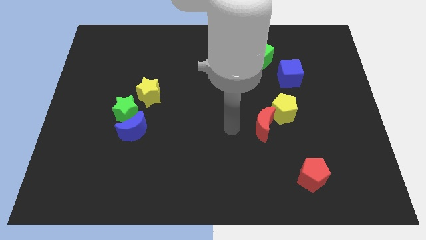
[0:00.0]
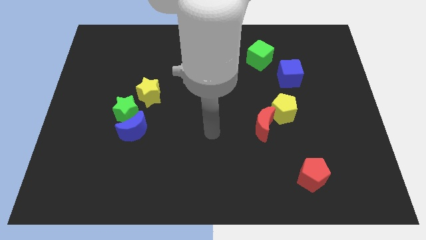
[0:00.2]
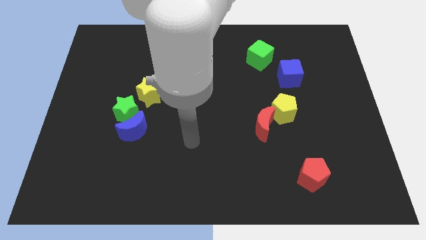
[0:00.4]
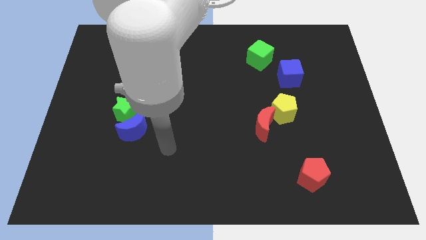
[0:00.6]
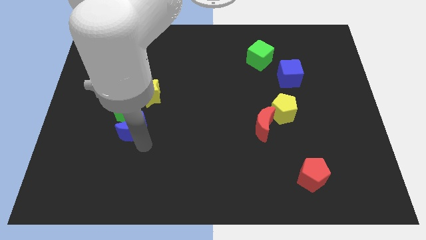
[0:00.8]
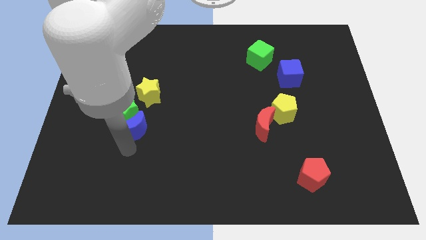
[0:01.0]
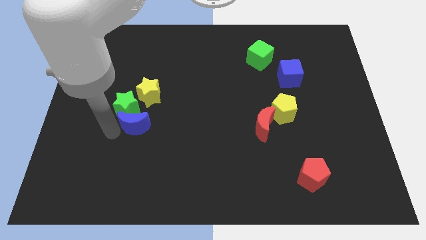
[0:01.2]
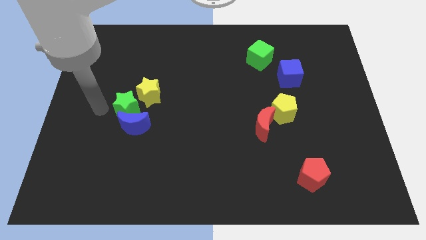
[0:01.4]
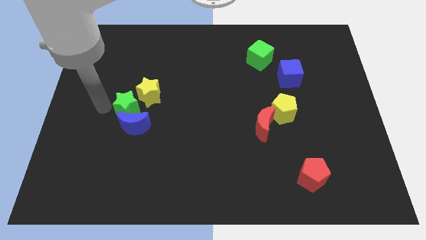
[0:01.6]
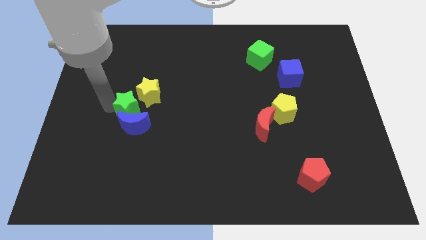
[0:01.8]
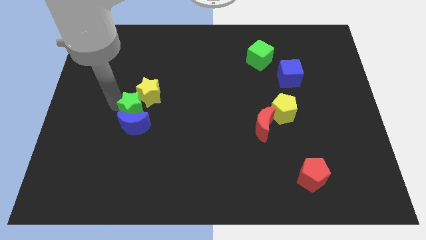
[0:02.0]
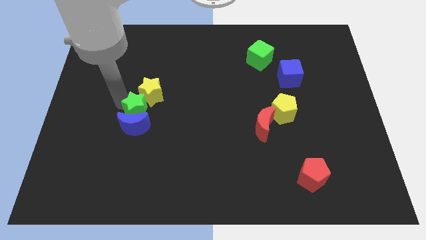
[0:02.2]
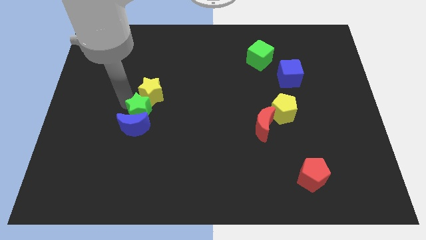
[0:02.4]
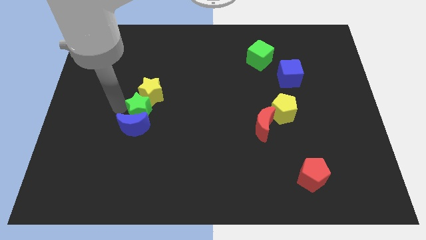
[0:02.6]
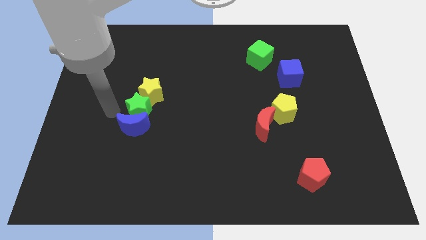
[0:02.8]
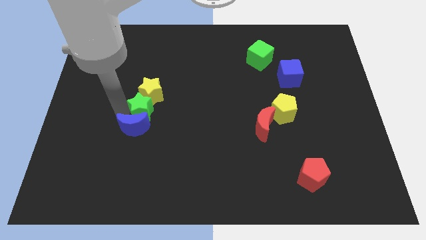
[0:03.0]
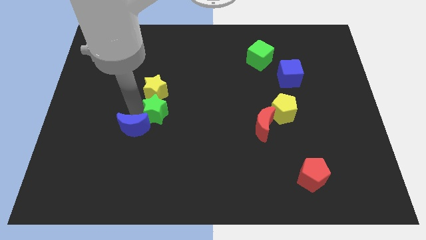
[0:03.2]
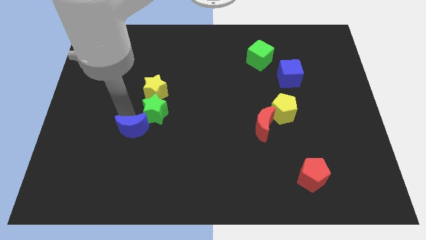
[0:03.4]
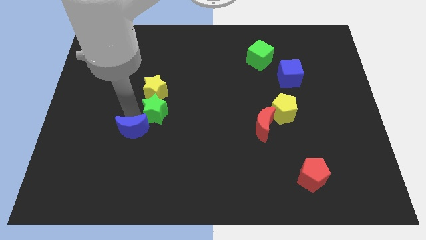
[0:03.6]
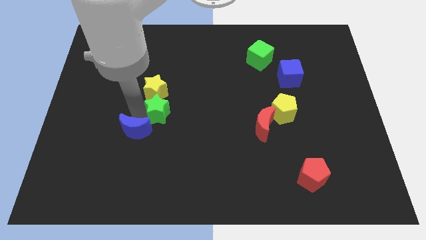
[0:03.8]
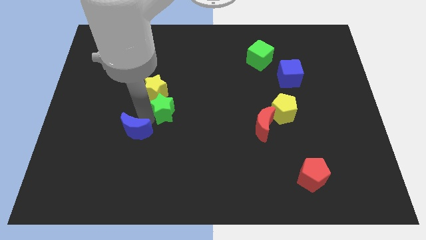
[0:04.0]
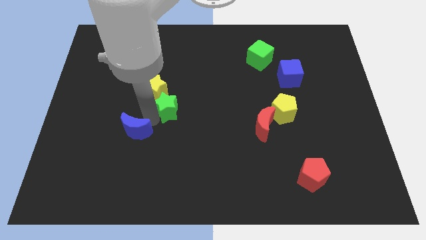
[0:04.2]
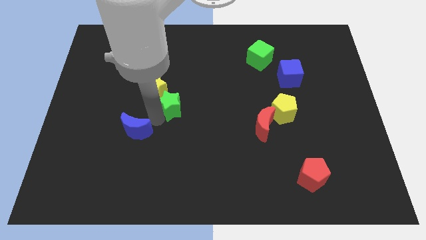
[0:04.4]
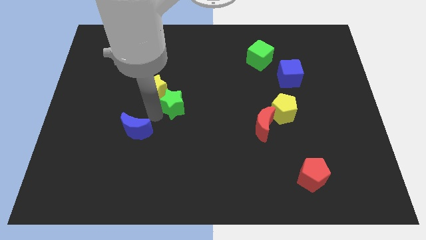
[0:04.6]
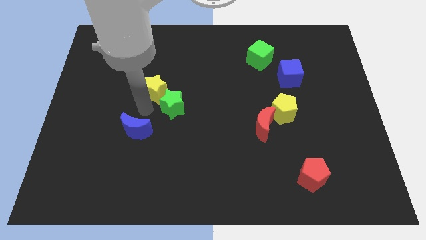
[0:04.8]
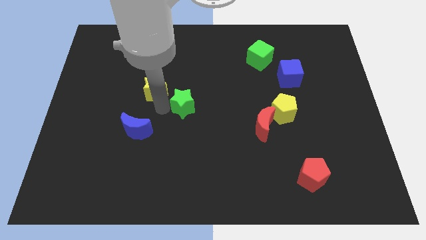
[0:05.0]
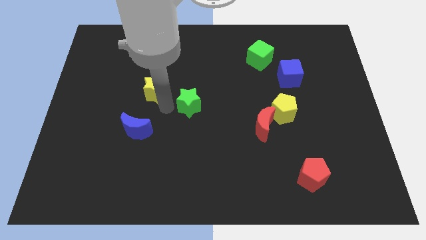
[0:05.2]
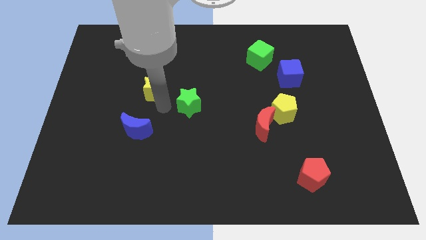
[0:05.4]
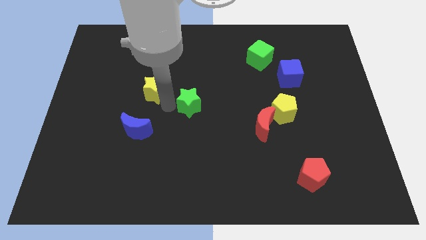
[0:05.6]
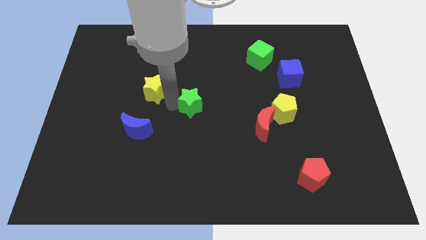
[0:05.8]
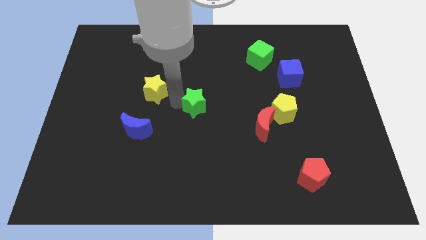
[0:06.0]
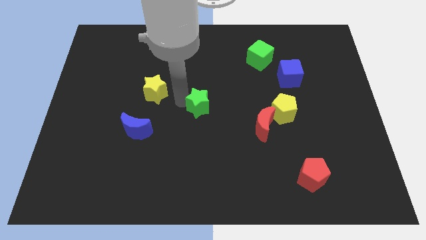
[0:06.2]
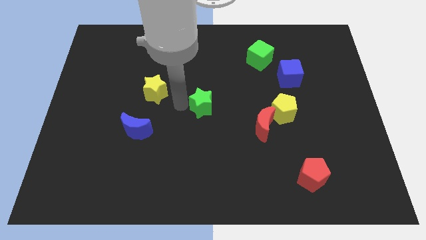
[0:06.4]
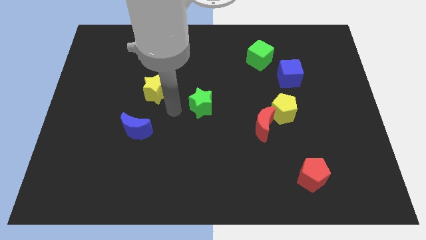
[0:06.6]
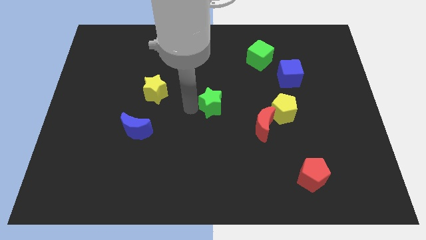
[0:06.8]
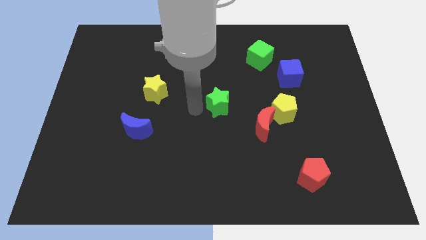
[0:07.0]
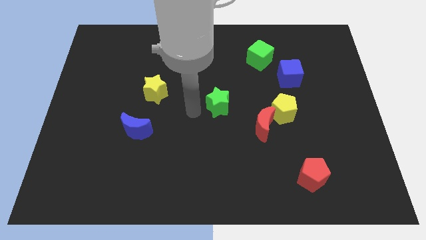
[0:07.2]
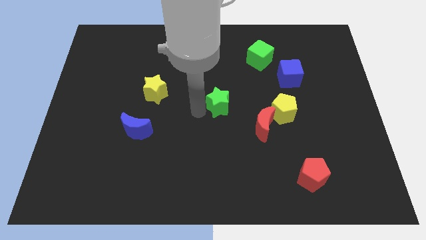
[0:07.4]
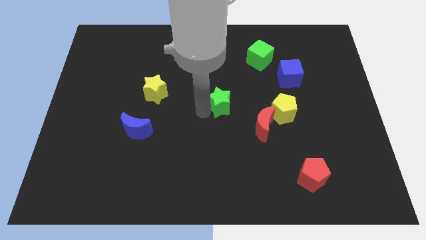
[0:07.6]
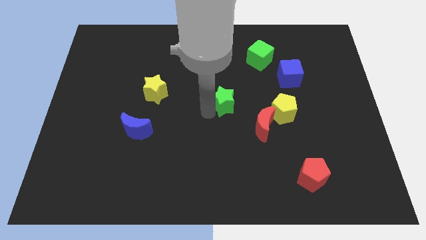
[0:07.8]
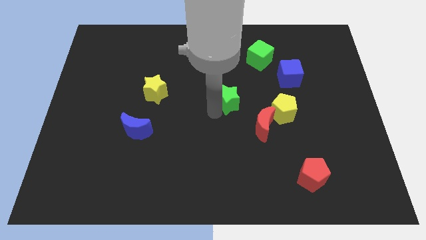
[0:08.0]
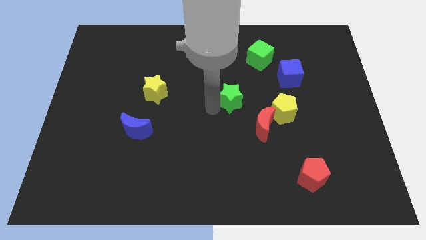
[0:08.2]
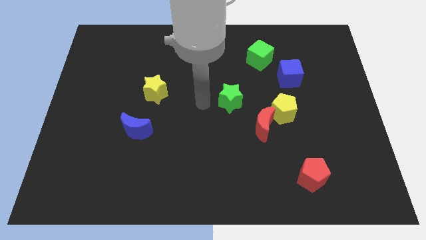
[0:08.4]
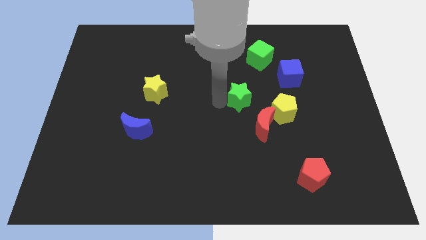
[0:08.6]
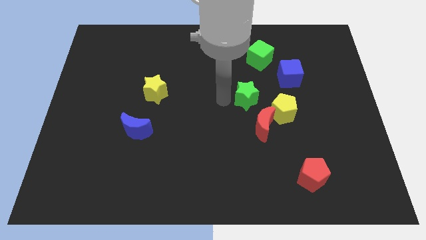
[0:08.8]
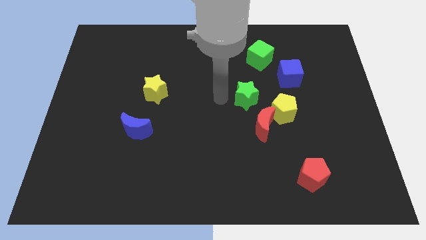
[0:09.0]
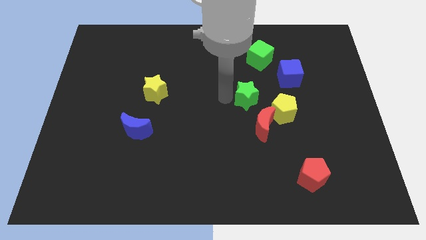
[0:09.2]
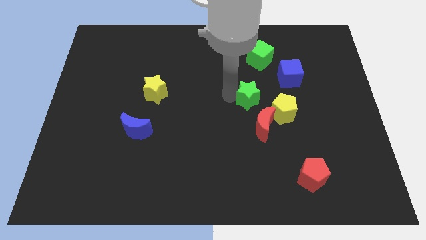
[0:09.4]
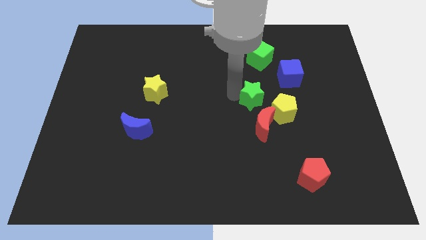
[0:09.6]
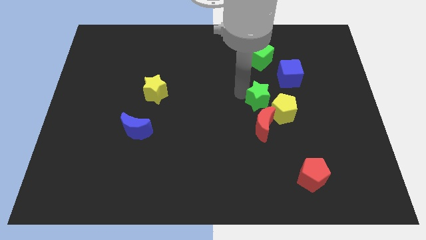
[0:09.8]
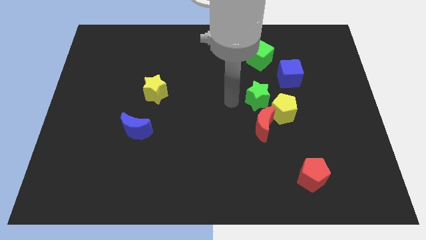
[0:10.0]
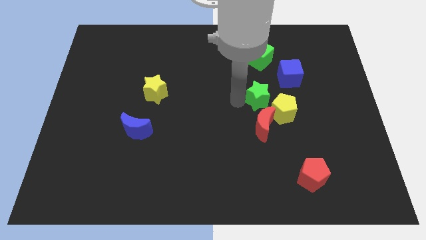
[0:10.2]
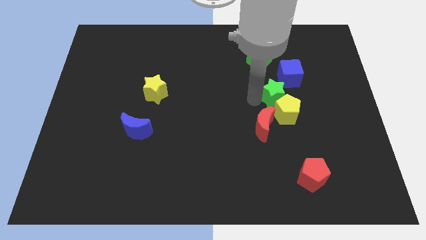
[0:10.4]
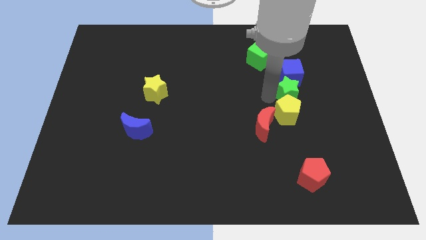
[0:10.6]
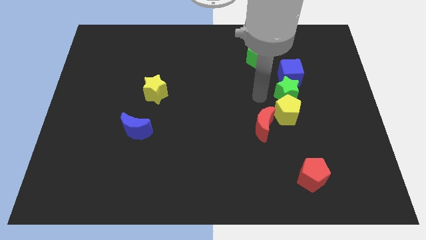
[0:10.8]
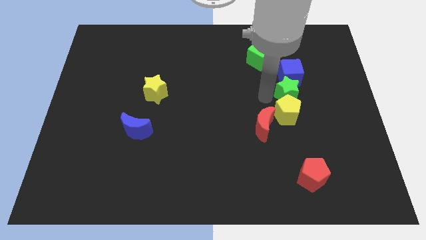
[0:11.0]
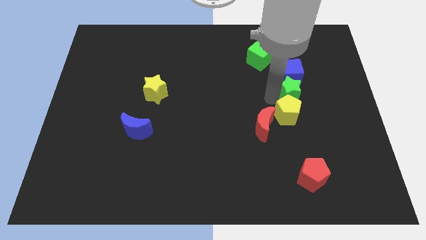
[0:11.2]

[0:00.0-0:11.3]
put the green star diagonally down and to the right of the blue cube

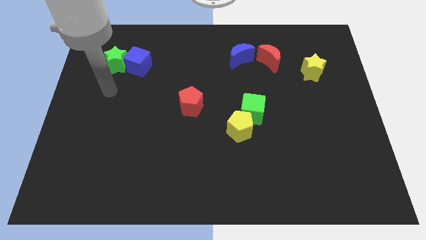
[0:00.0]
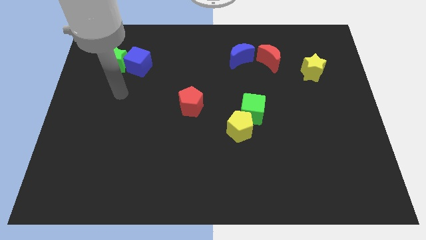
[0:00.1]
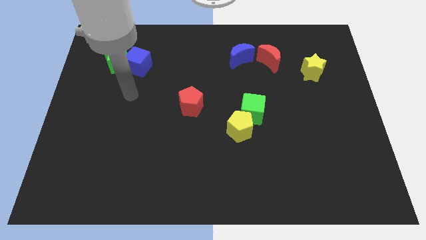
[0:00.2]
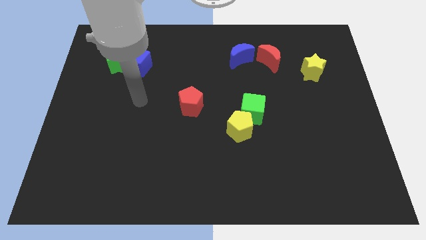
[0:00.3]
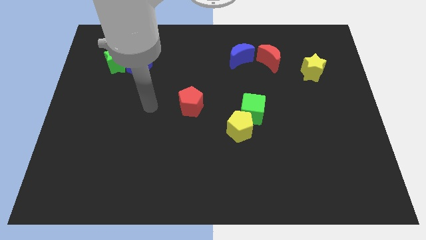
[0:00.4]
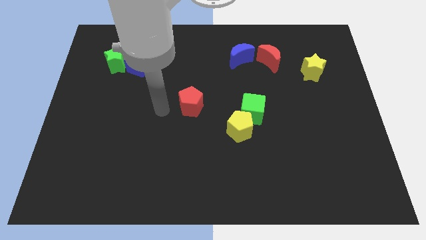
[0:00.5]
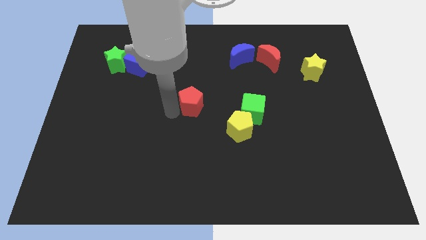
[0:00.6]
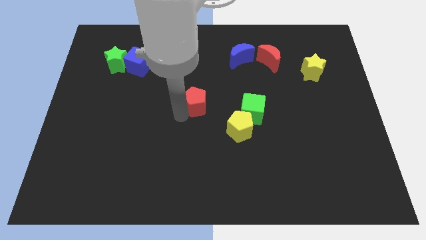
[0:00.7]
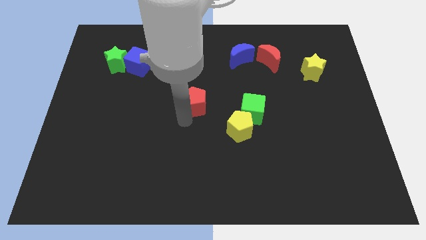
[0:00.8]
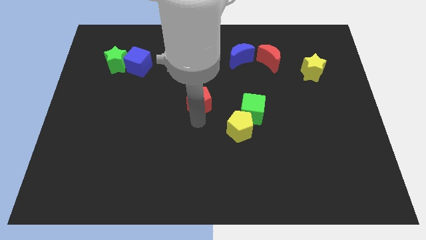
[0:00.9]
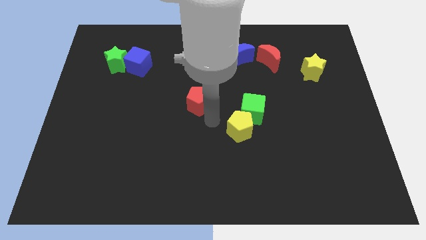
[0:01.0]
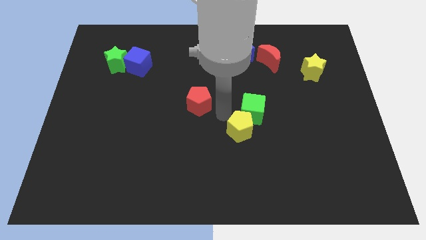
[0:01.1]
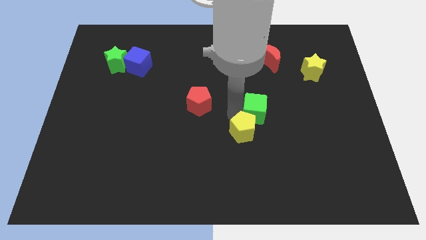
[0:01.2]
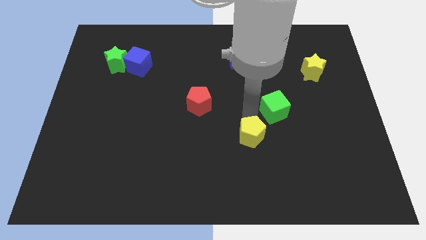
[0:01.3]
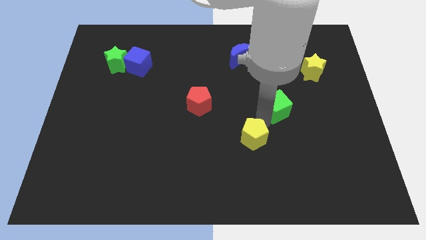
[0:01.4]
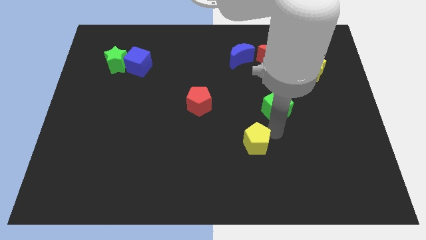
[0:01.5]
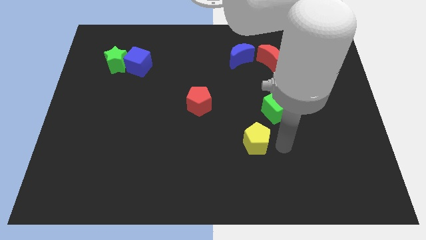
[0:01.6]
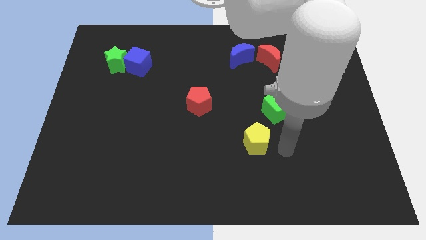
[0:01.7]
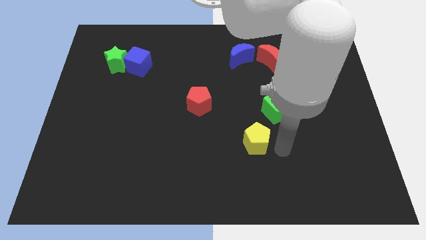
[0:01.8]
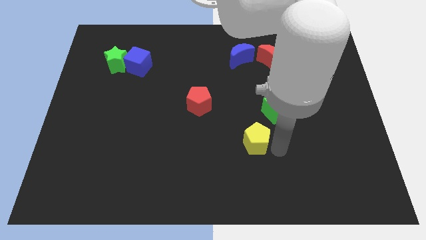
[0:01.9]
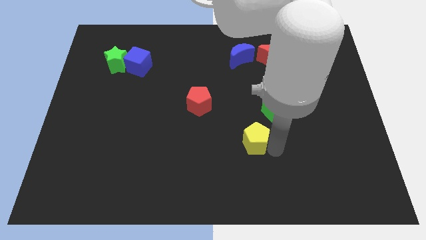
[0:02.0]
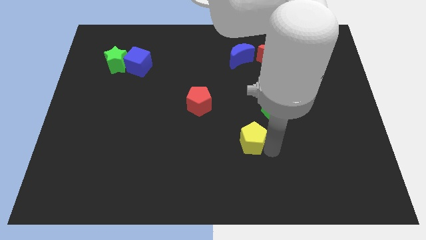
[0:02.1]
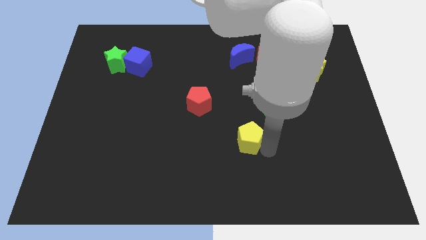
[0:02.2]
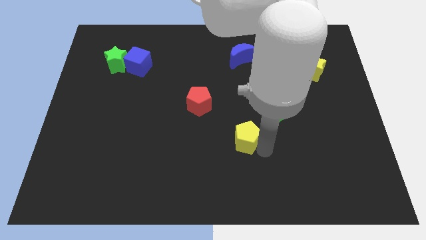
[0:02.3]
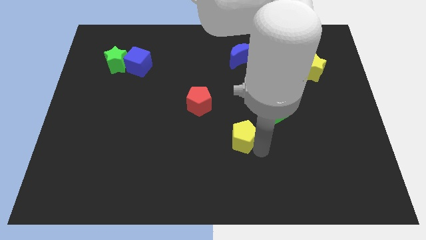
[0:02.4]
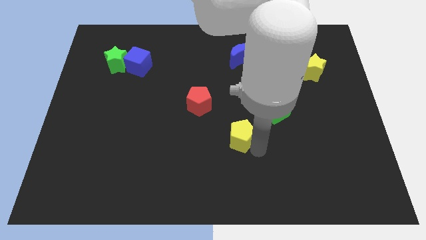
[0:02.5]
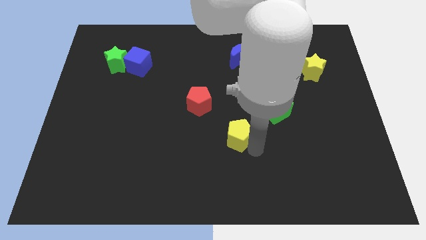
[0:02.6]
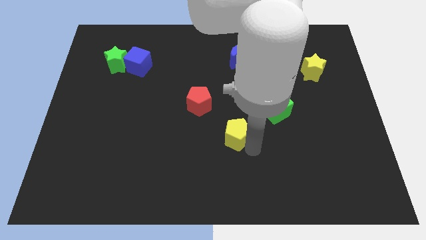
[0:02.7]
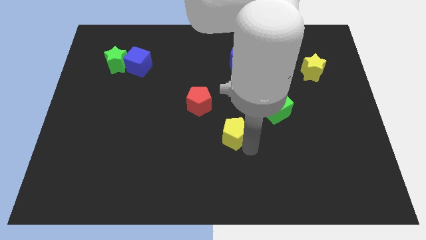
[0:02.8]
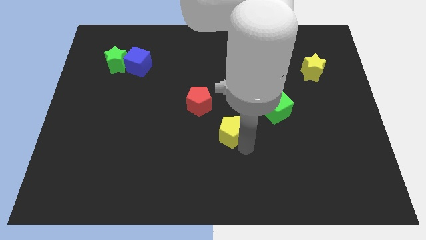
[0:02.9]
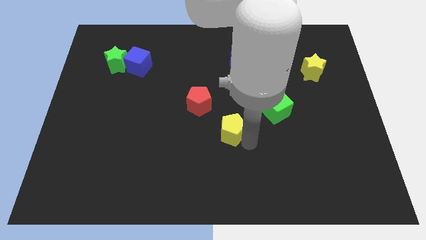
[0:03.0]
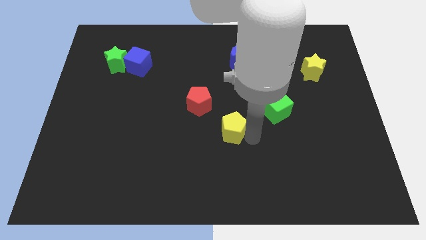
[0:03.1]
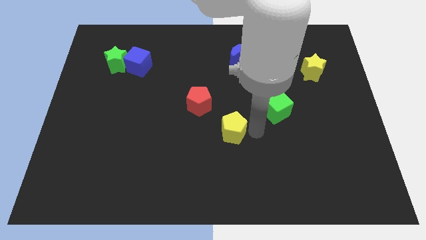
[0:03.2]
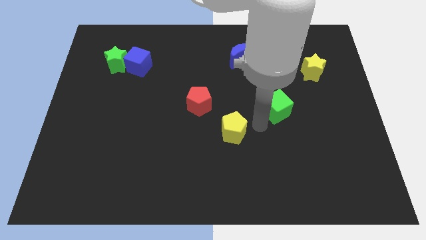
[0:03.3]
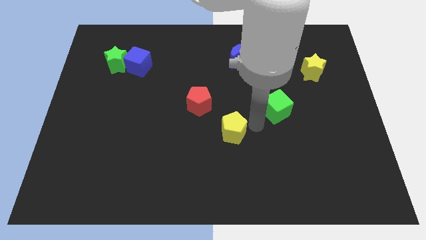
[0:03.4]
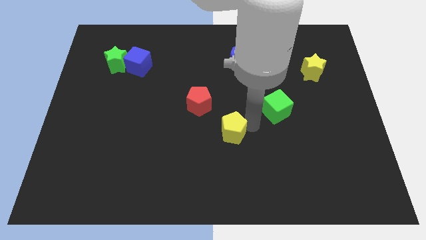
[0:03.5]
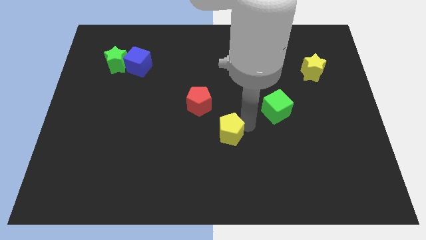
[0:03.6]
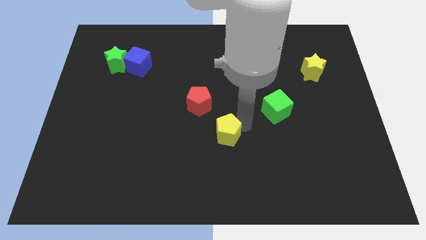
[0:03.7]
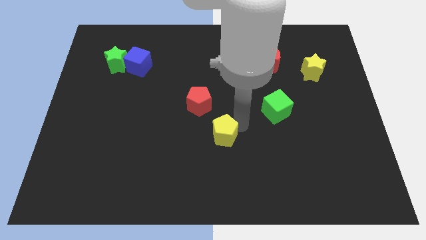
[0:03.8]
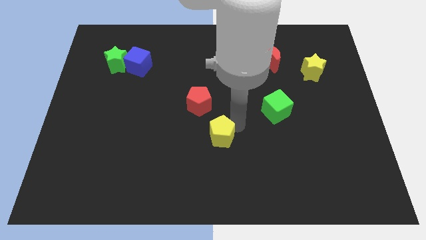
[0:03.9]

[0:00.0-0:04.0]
put the yellow pentagon to the bottom of the red pentagon
